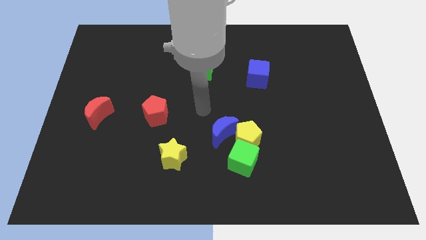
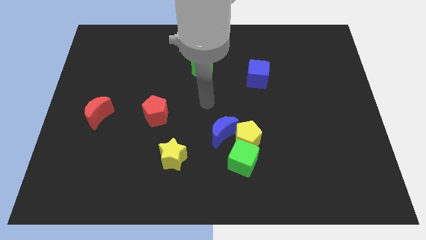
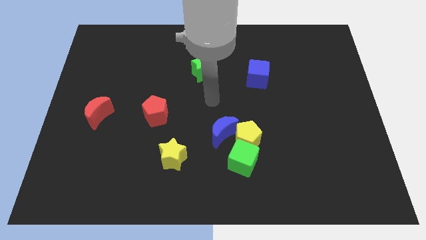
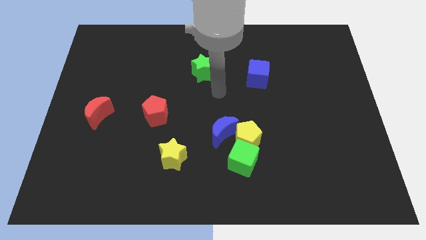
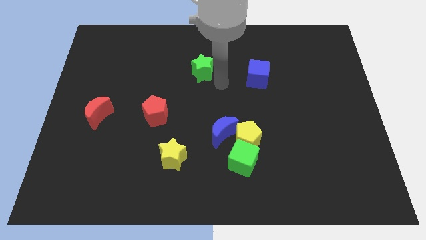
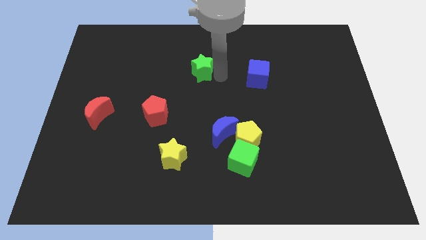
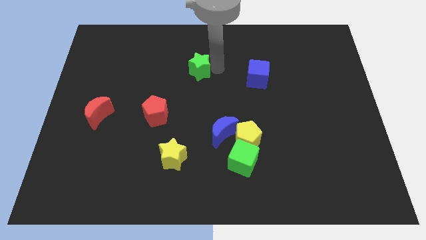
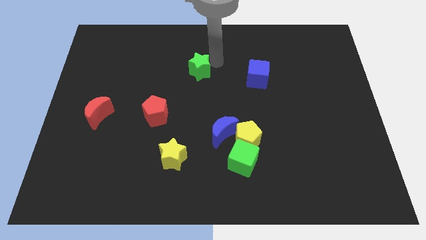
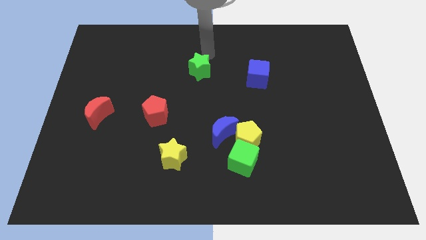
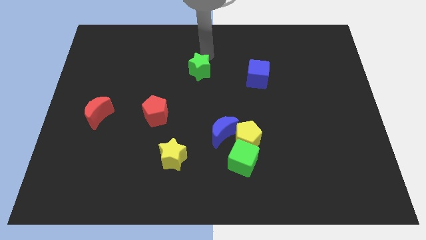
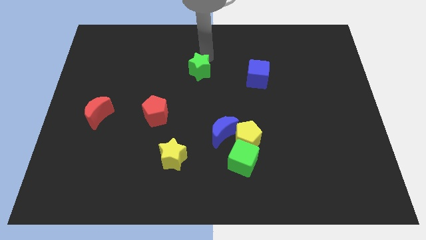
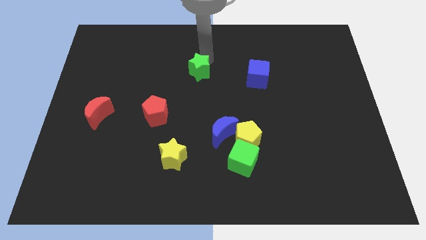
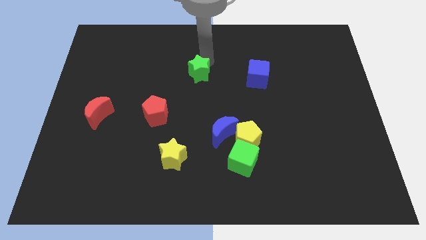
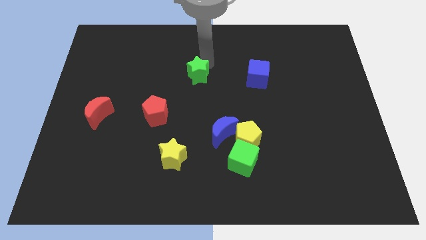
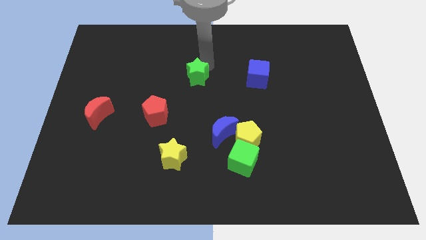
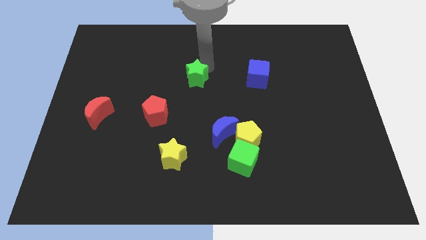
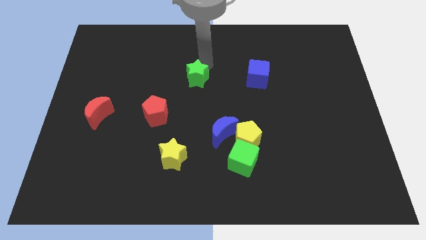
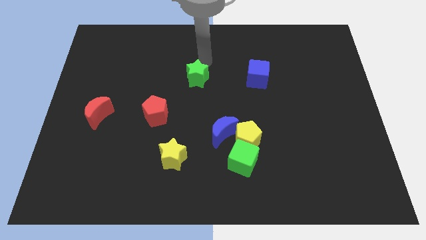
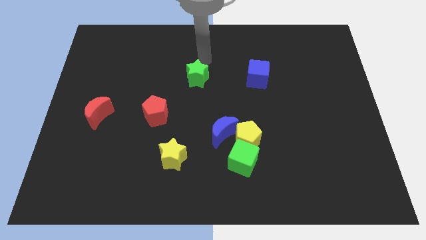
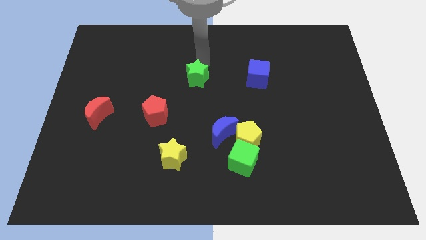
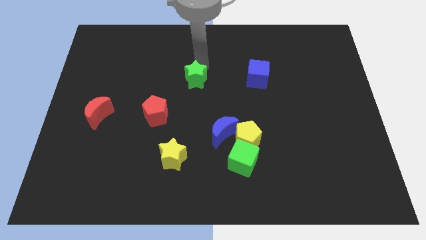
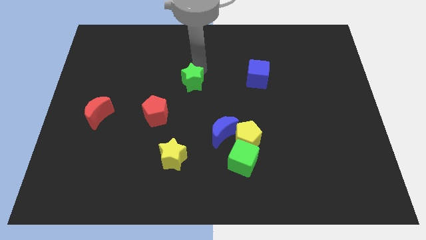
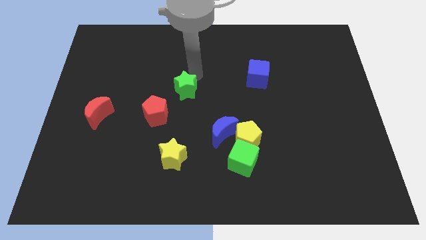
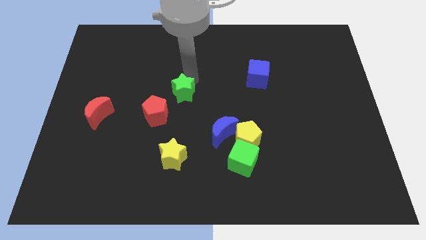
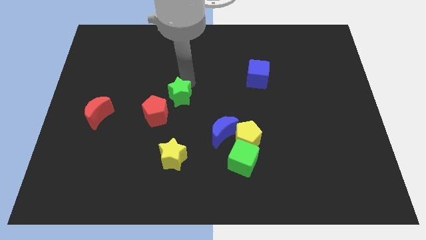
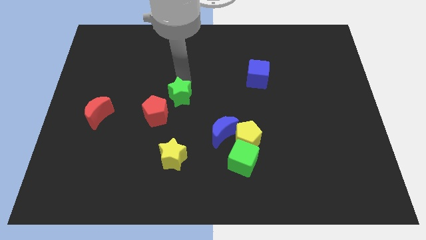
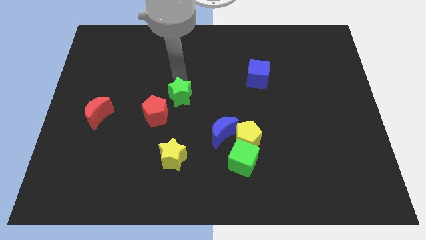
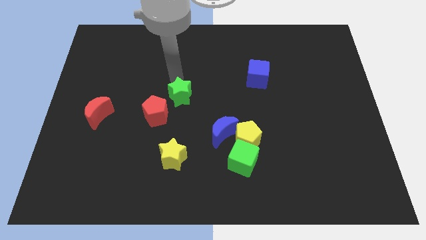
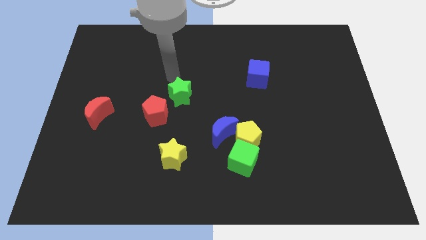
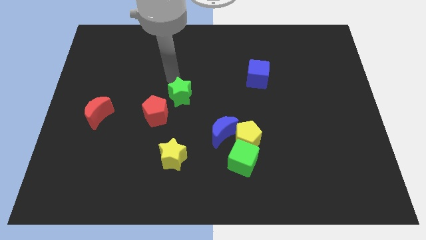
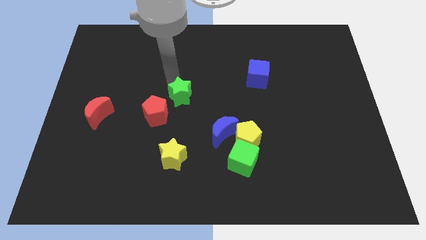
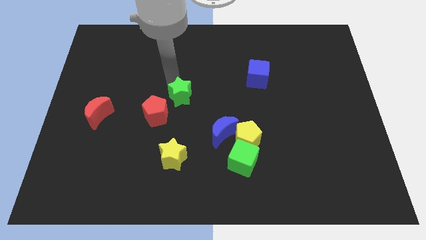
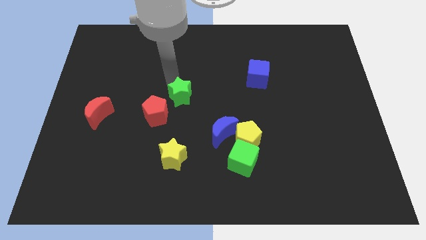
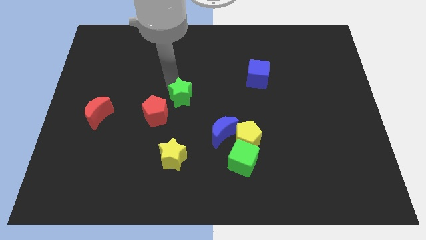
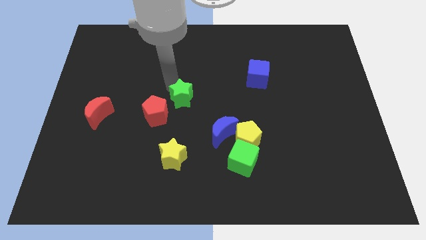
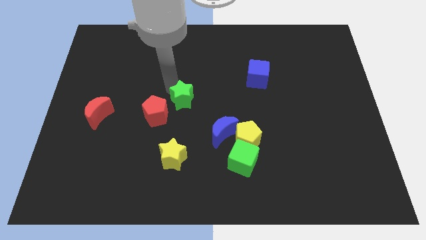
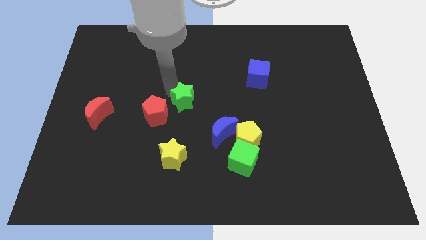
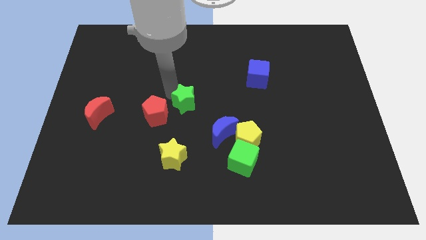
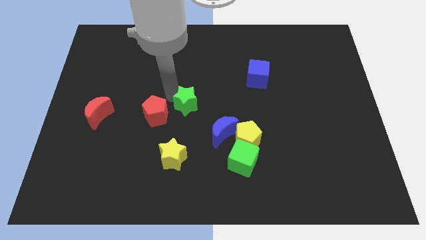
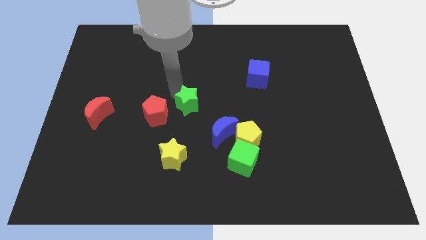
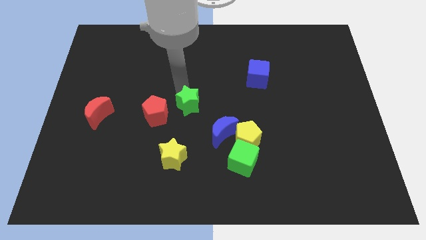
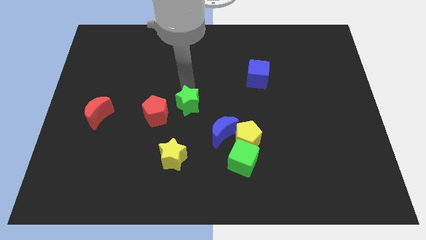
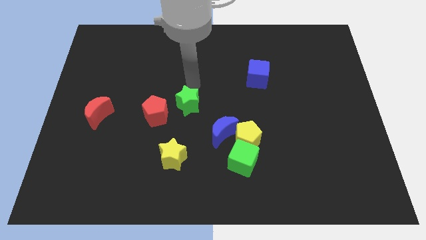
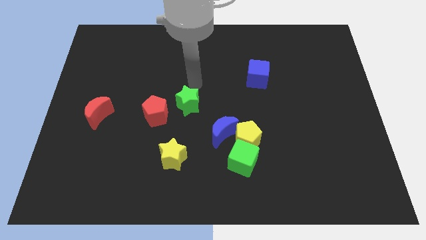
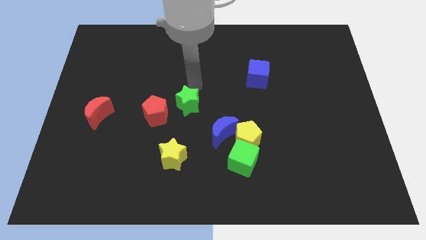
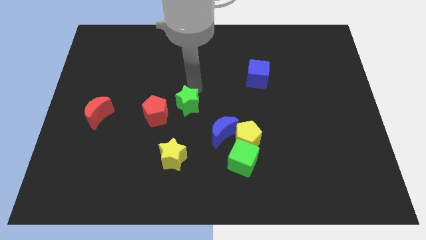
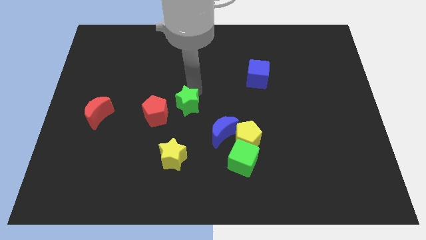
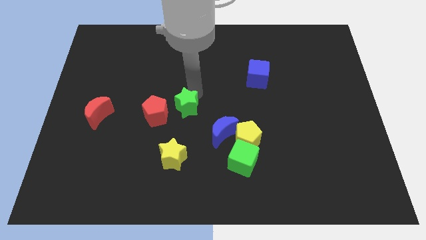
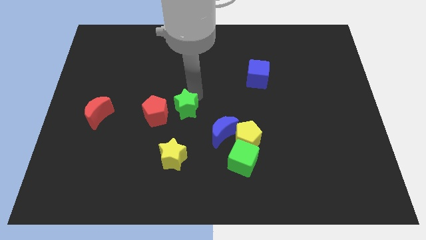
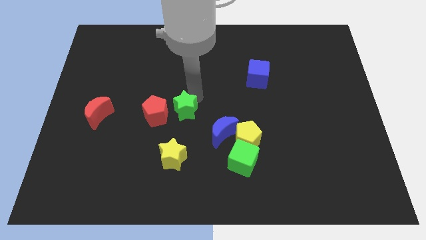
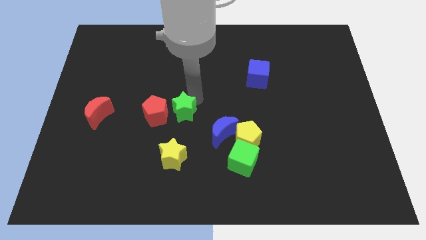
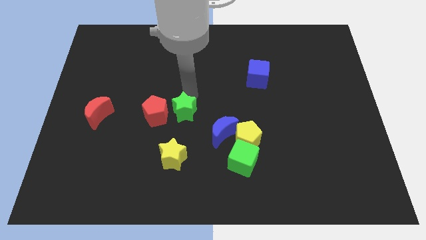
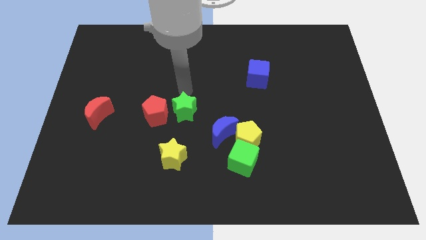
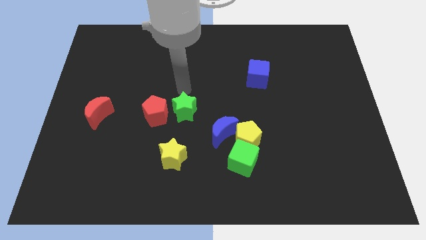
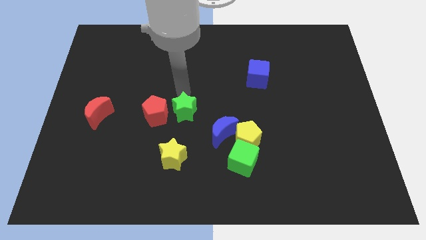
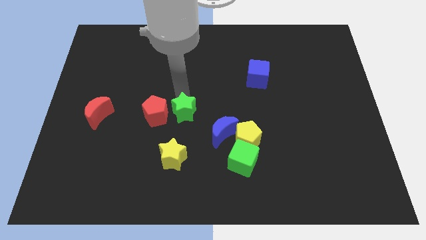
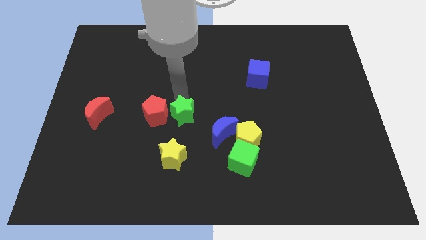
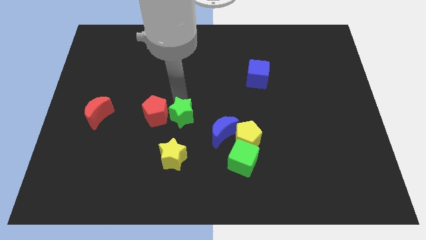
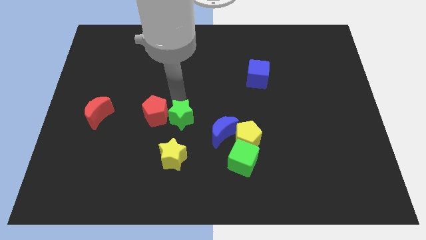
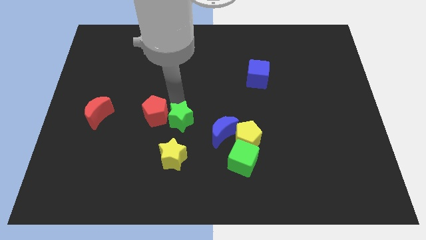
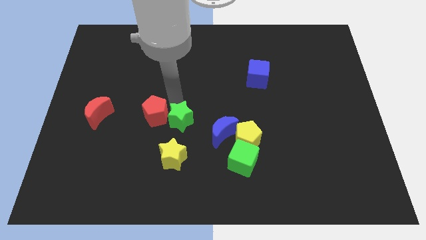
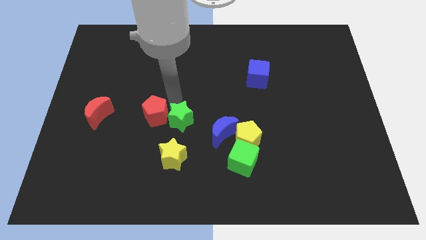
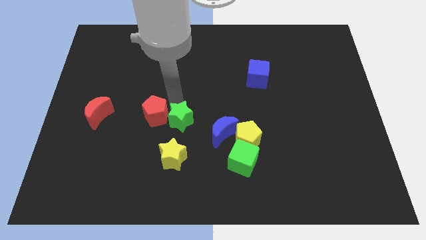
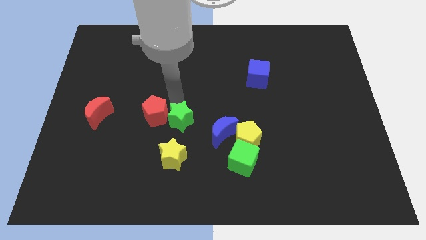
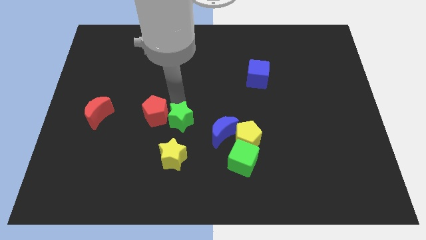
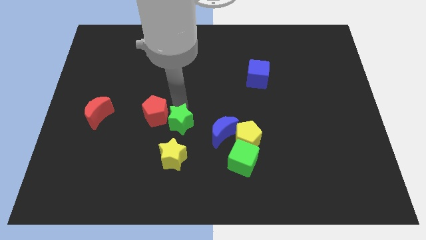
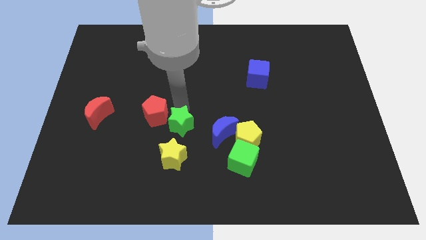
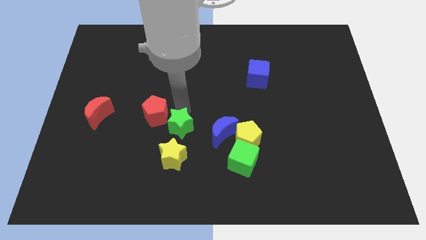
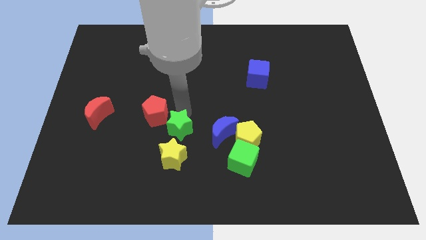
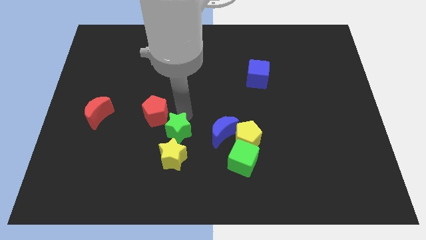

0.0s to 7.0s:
move the green star to the bottom side of the red pentagon
